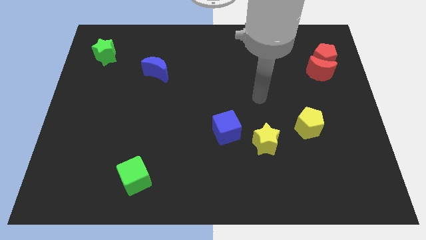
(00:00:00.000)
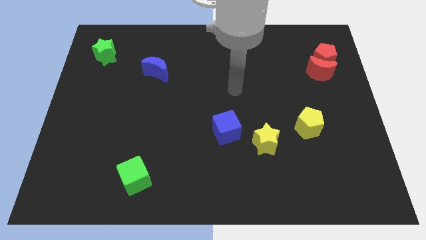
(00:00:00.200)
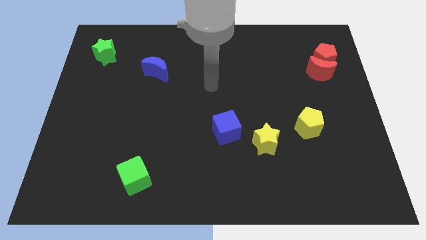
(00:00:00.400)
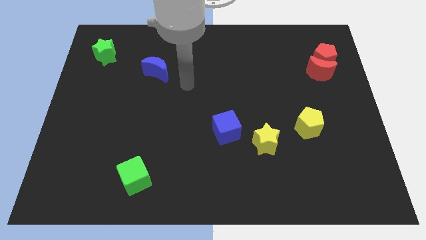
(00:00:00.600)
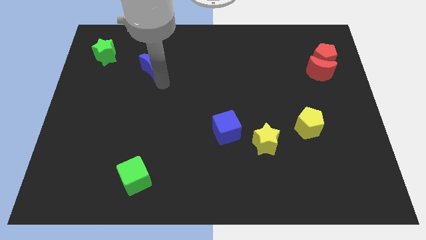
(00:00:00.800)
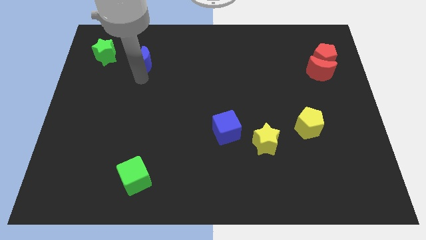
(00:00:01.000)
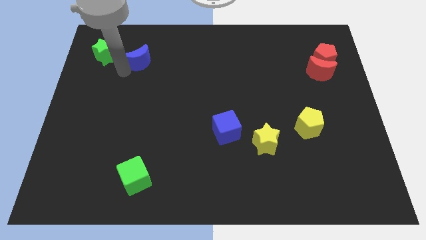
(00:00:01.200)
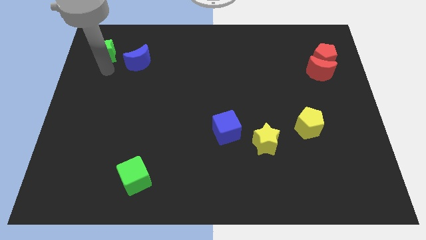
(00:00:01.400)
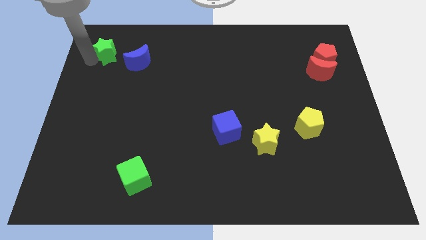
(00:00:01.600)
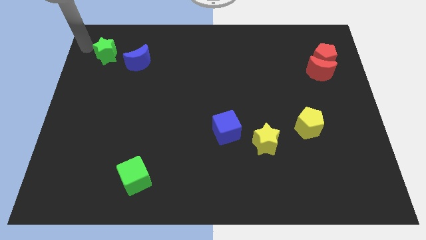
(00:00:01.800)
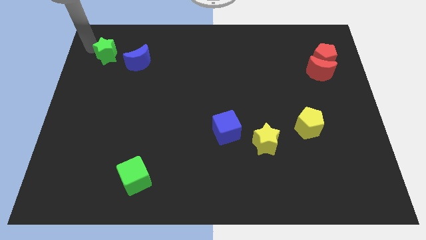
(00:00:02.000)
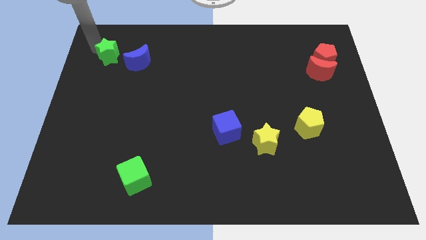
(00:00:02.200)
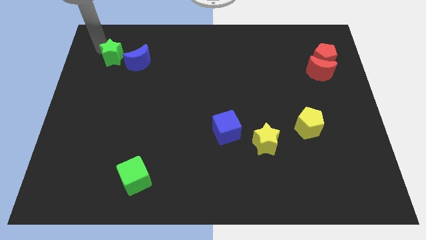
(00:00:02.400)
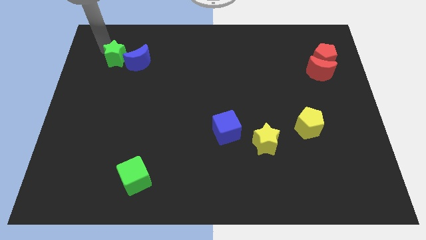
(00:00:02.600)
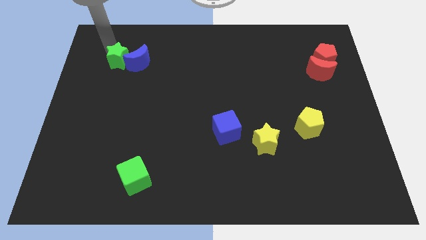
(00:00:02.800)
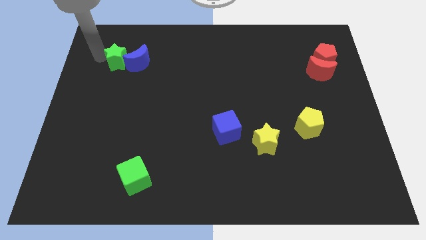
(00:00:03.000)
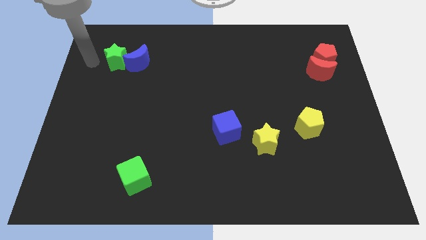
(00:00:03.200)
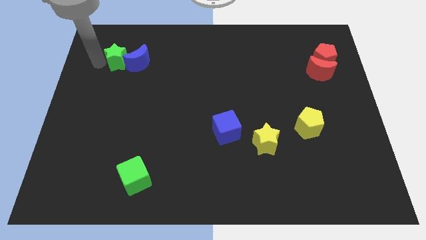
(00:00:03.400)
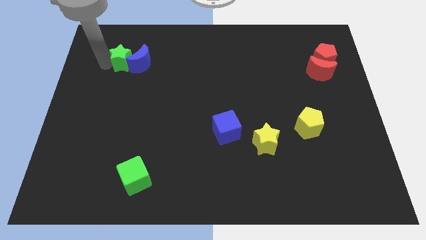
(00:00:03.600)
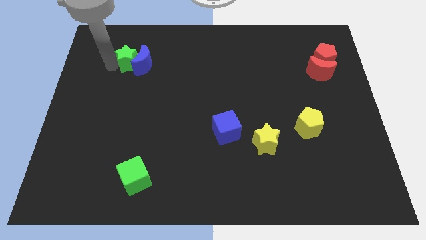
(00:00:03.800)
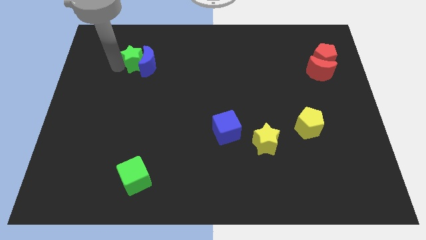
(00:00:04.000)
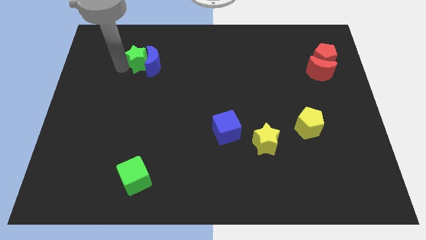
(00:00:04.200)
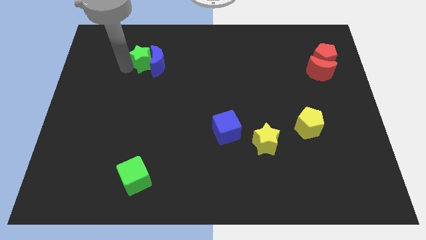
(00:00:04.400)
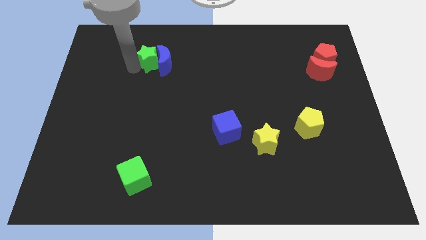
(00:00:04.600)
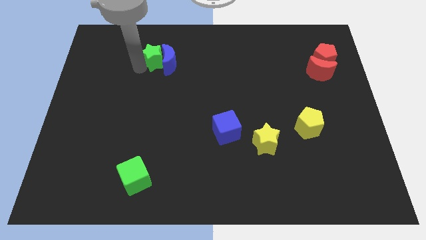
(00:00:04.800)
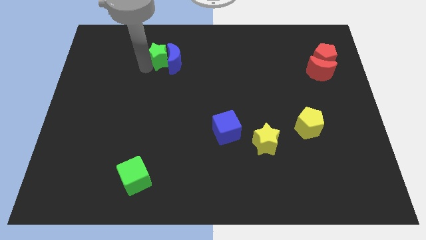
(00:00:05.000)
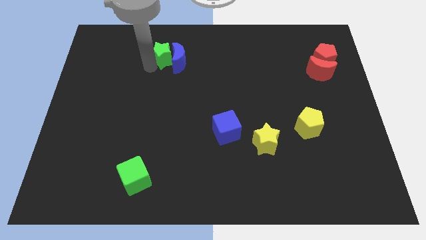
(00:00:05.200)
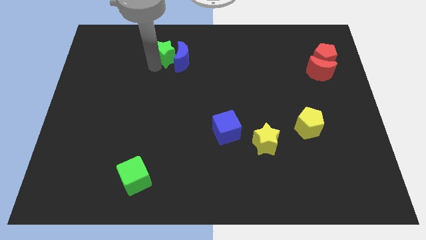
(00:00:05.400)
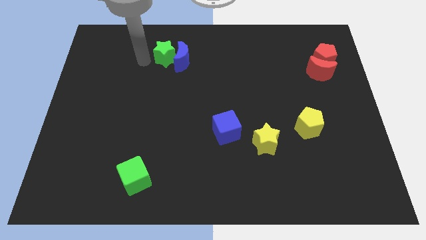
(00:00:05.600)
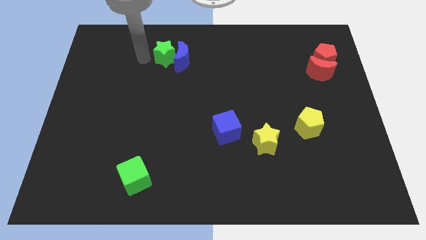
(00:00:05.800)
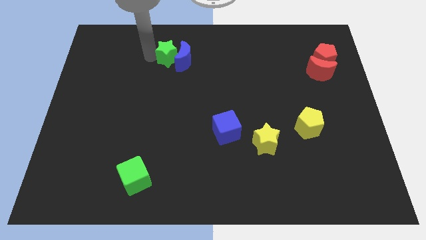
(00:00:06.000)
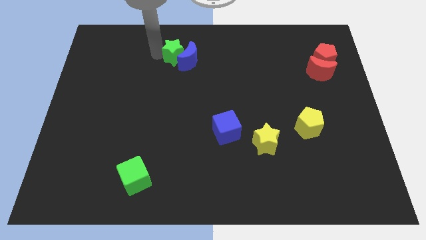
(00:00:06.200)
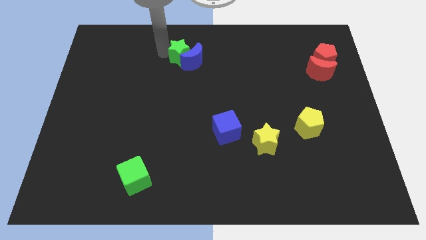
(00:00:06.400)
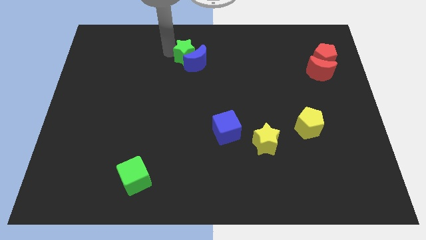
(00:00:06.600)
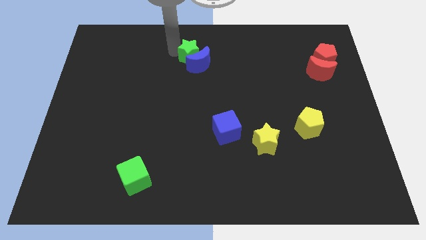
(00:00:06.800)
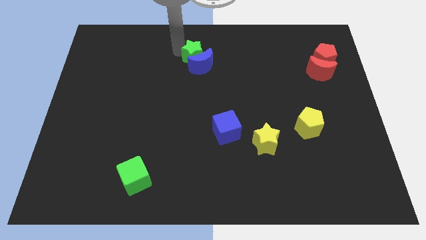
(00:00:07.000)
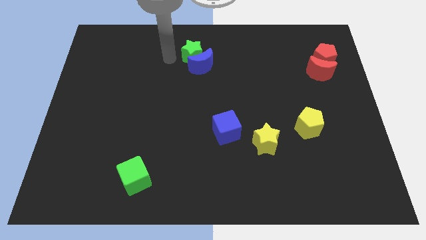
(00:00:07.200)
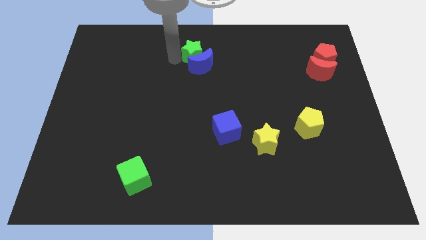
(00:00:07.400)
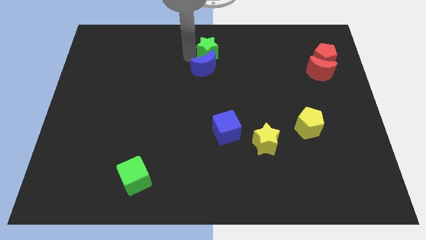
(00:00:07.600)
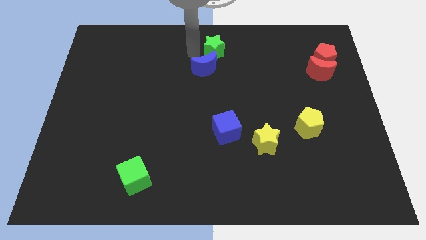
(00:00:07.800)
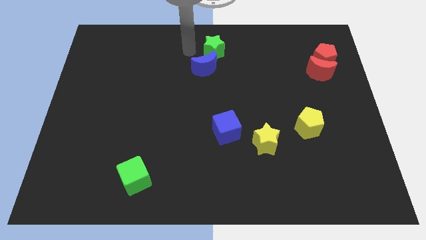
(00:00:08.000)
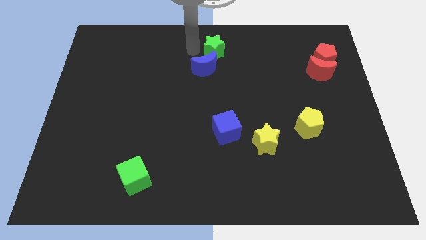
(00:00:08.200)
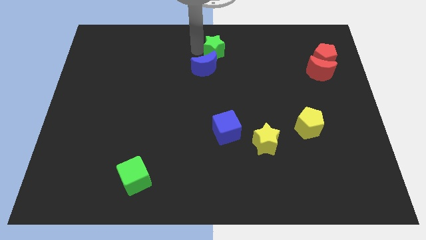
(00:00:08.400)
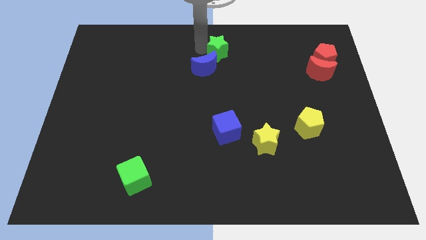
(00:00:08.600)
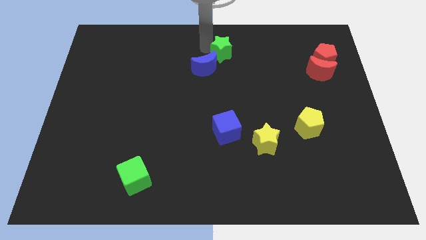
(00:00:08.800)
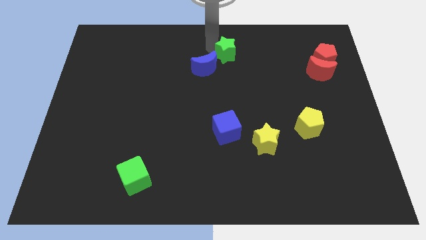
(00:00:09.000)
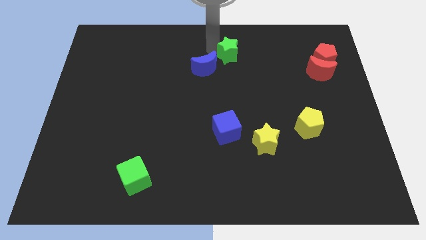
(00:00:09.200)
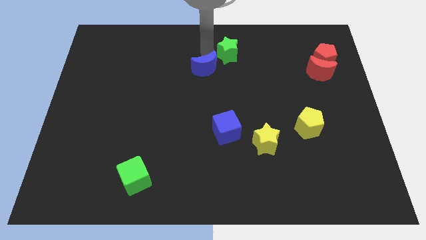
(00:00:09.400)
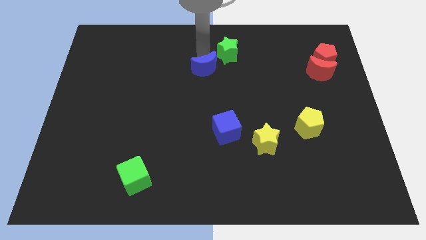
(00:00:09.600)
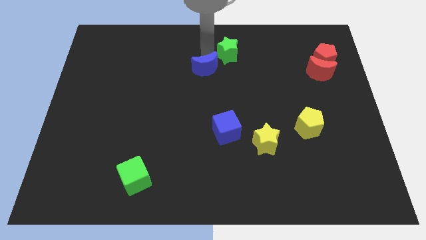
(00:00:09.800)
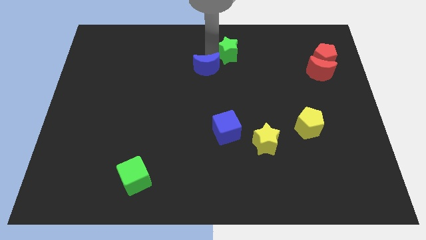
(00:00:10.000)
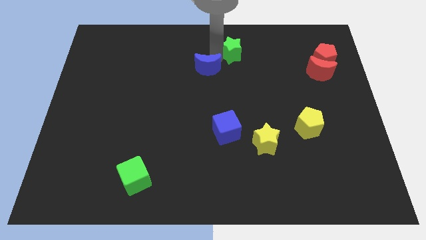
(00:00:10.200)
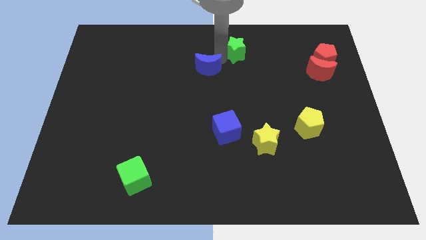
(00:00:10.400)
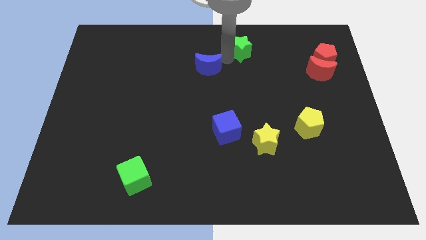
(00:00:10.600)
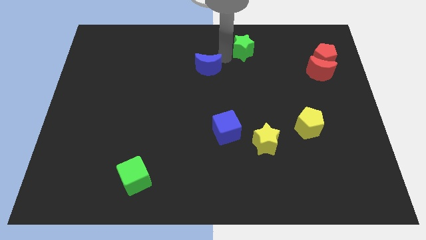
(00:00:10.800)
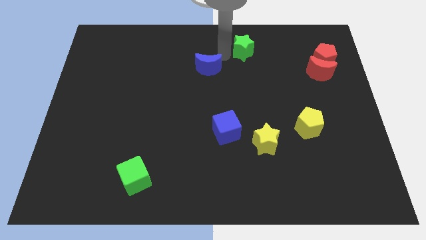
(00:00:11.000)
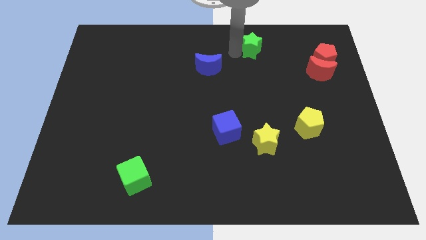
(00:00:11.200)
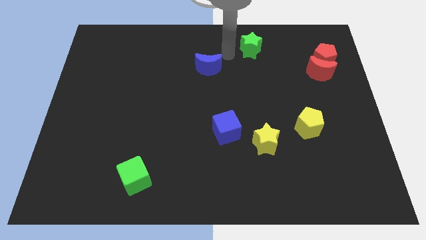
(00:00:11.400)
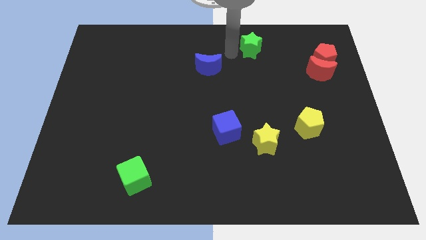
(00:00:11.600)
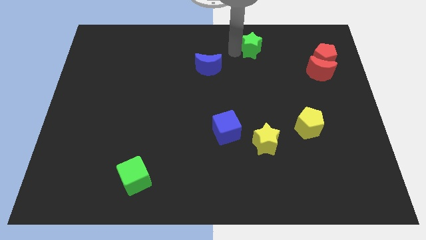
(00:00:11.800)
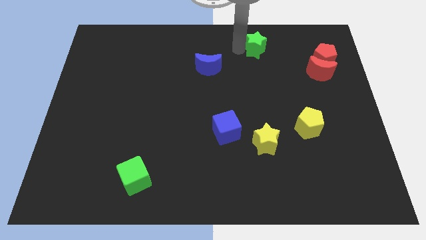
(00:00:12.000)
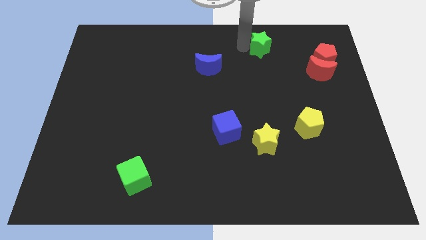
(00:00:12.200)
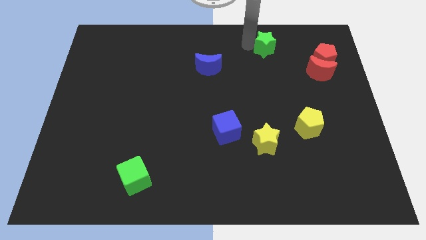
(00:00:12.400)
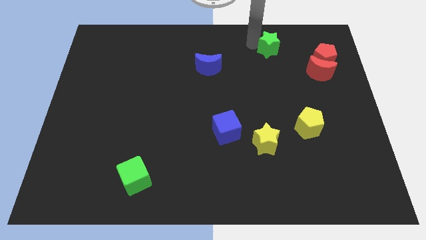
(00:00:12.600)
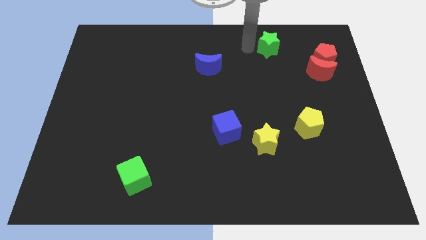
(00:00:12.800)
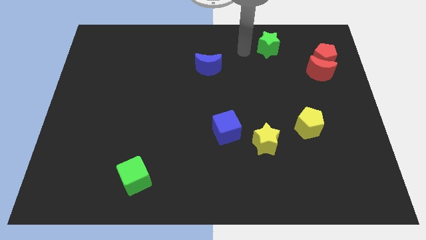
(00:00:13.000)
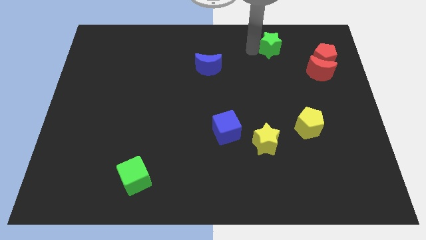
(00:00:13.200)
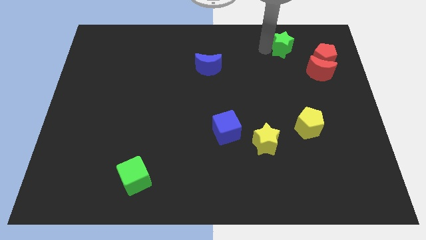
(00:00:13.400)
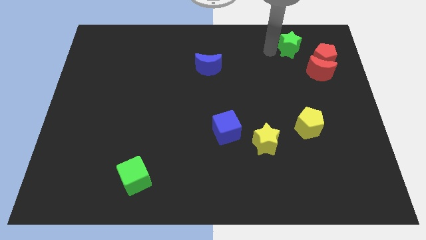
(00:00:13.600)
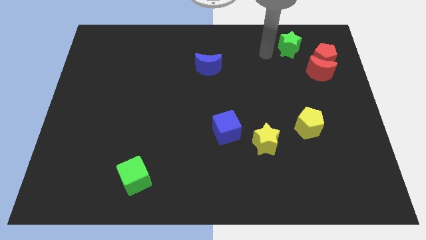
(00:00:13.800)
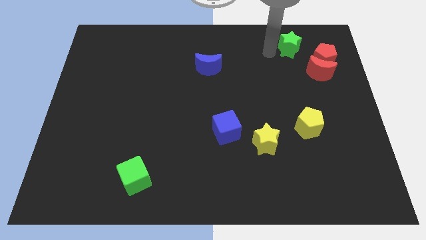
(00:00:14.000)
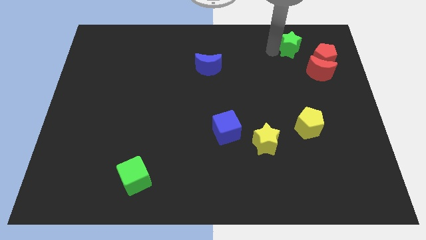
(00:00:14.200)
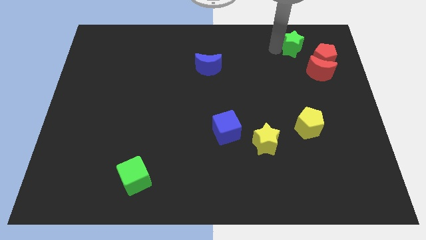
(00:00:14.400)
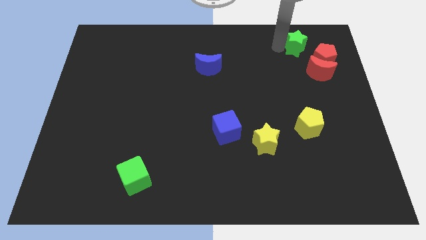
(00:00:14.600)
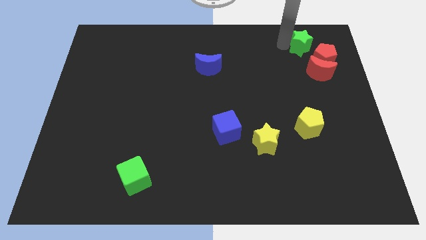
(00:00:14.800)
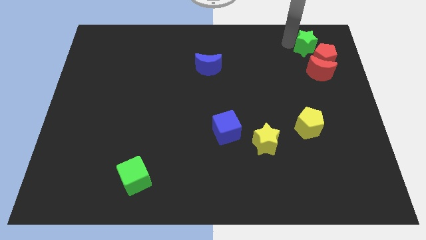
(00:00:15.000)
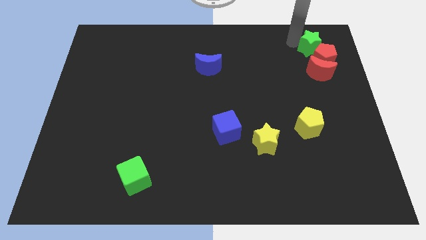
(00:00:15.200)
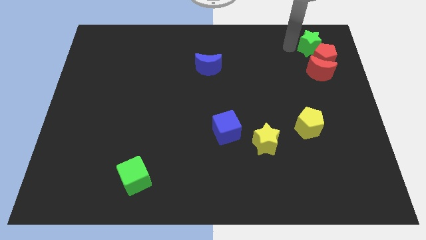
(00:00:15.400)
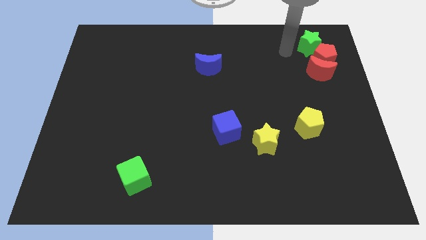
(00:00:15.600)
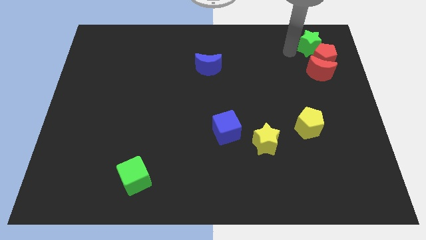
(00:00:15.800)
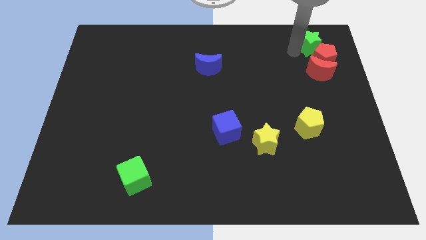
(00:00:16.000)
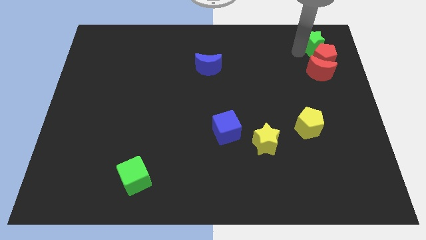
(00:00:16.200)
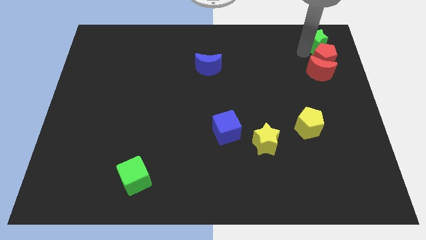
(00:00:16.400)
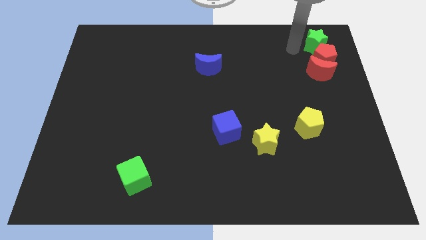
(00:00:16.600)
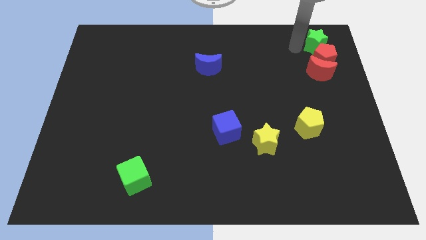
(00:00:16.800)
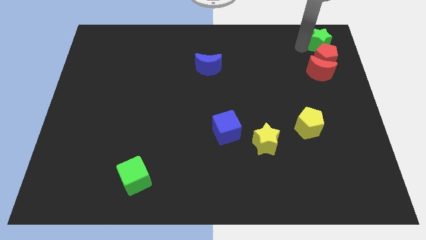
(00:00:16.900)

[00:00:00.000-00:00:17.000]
move the green star to the top right corner
